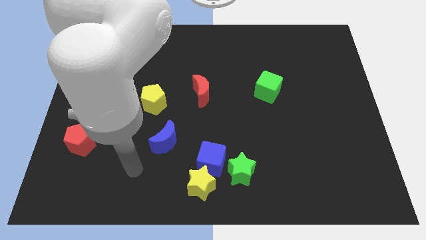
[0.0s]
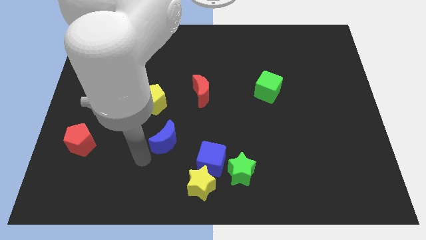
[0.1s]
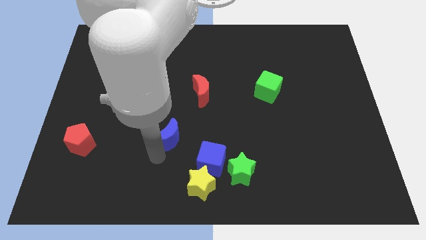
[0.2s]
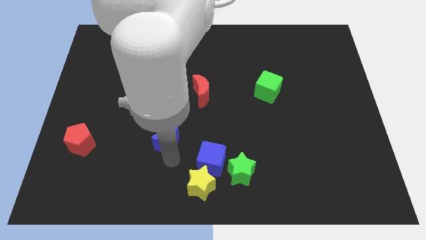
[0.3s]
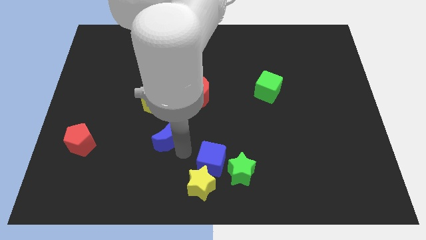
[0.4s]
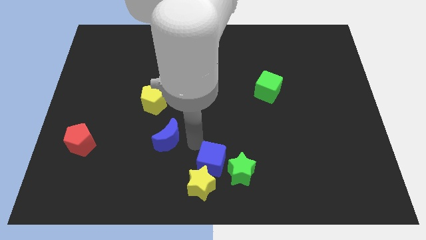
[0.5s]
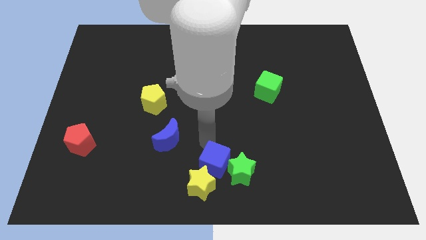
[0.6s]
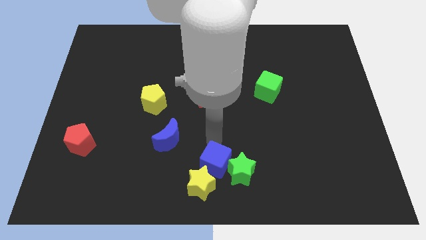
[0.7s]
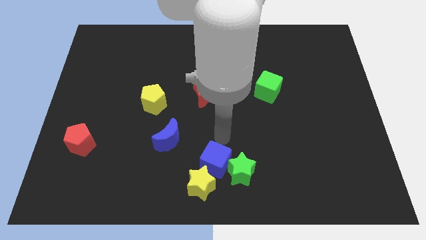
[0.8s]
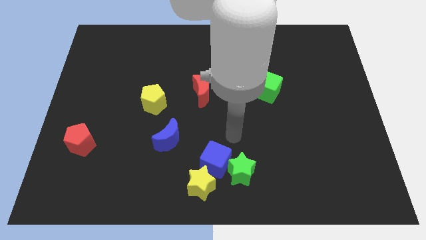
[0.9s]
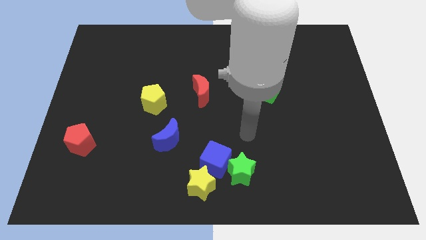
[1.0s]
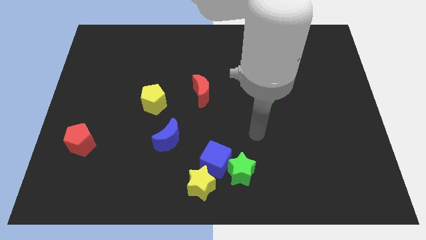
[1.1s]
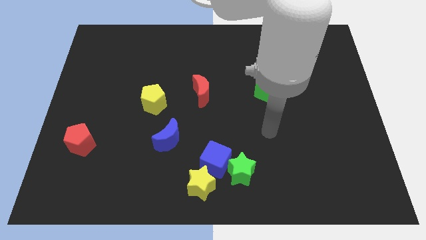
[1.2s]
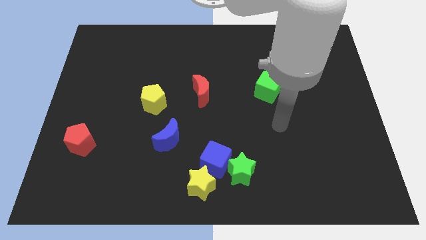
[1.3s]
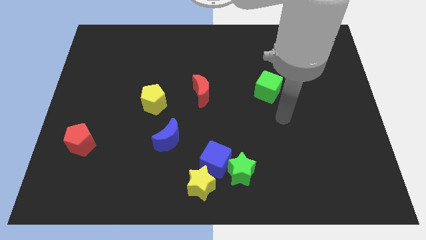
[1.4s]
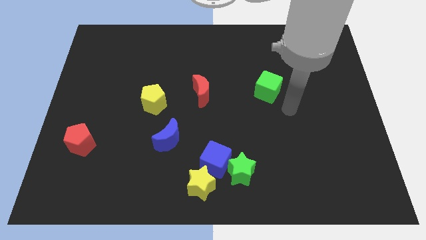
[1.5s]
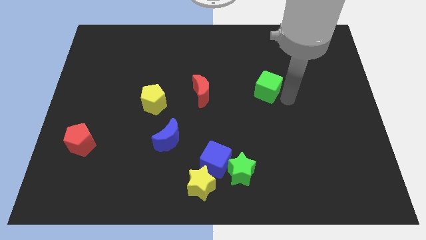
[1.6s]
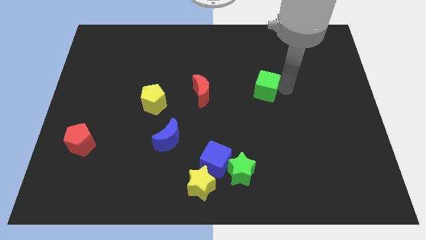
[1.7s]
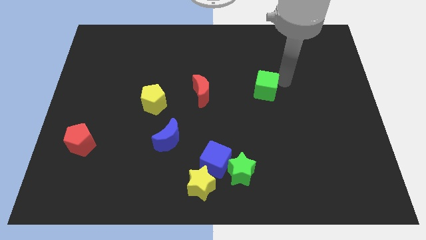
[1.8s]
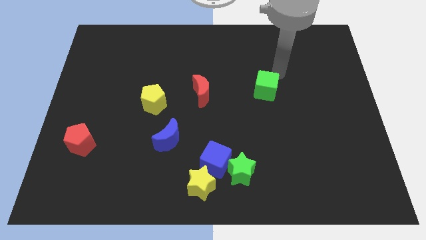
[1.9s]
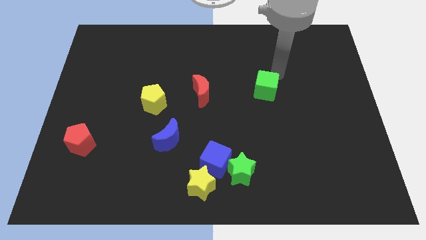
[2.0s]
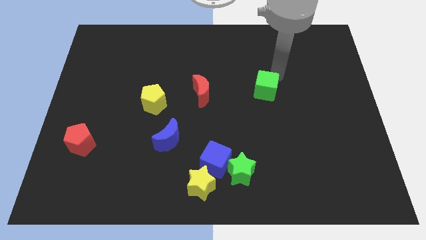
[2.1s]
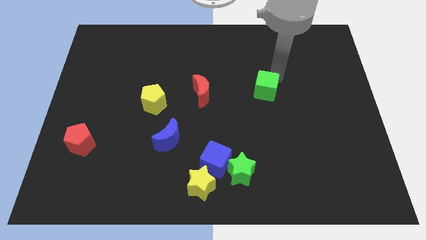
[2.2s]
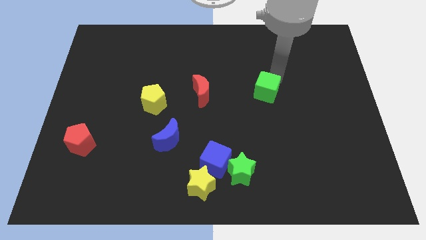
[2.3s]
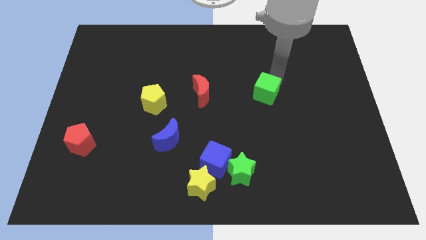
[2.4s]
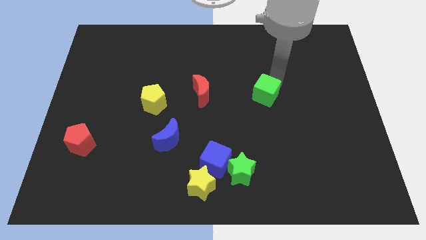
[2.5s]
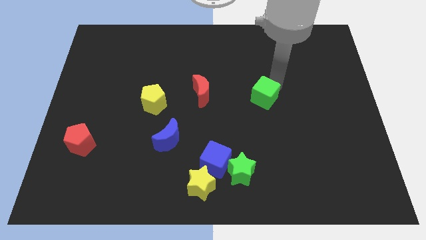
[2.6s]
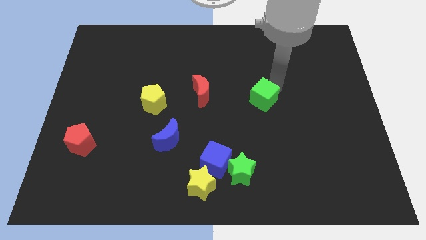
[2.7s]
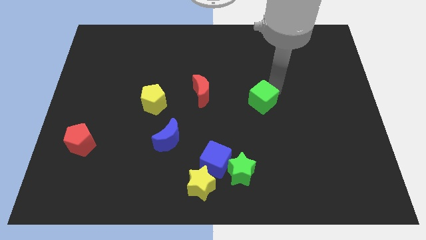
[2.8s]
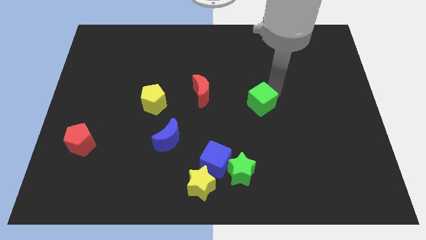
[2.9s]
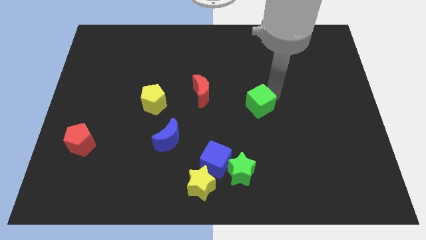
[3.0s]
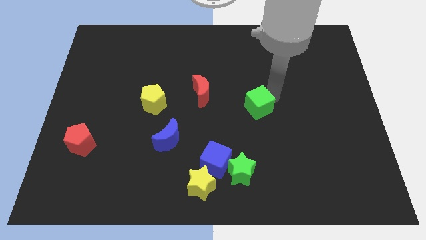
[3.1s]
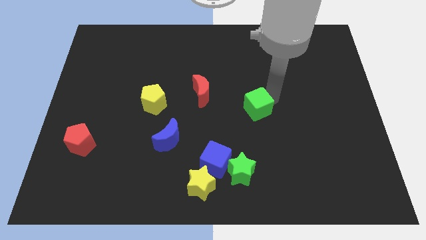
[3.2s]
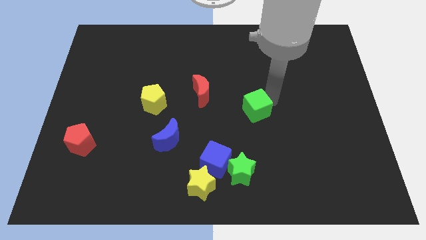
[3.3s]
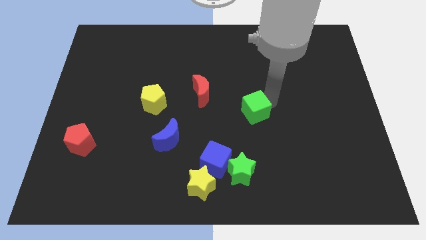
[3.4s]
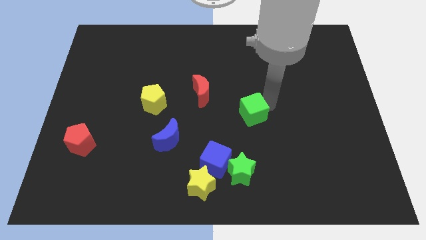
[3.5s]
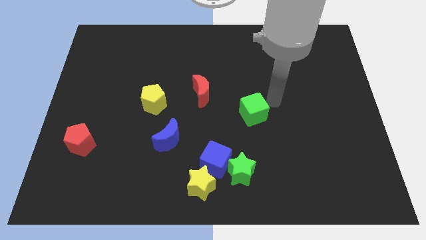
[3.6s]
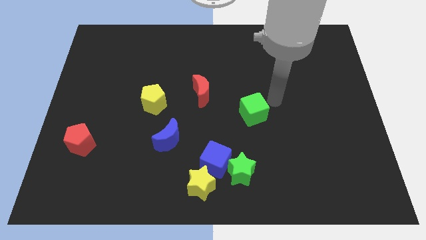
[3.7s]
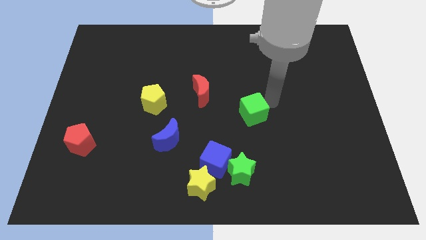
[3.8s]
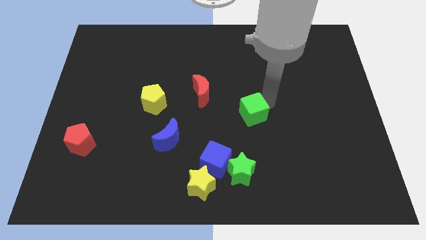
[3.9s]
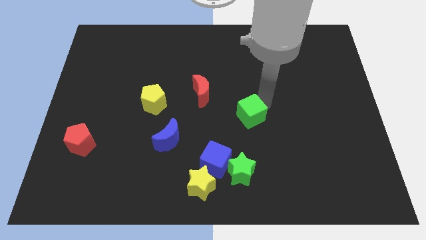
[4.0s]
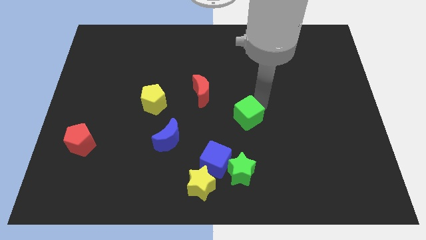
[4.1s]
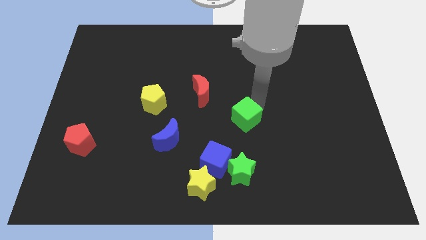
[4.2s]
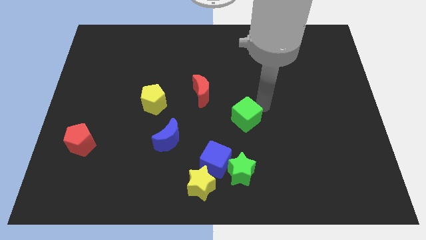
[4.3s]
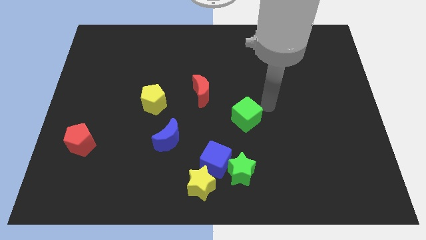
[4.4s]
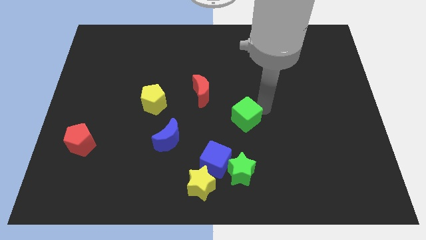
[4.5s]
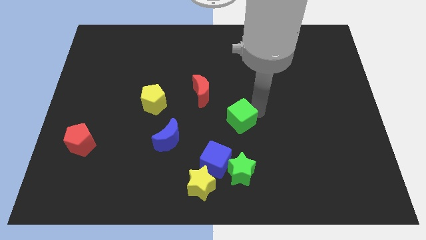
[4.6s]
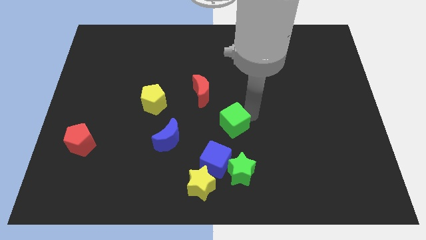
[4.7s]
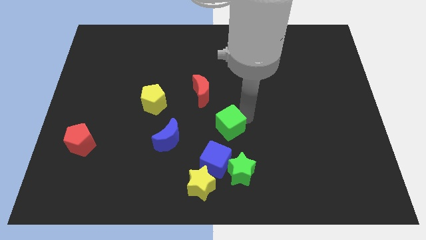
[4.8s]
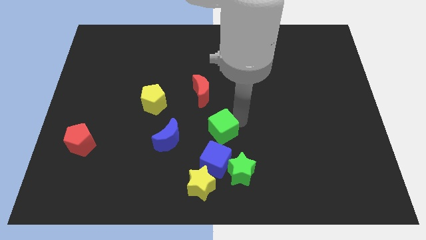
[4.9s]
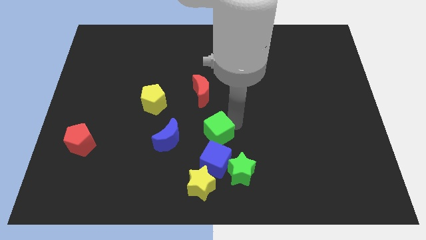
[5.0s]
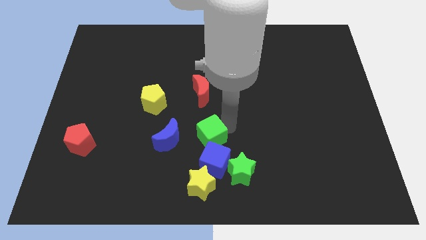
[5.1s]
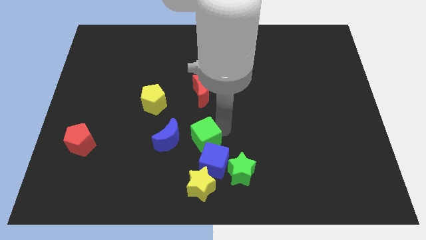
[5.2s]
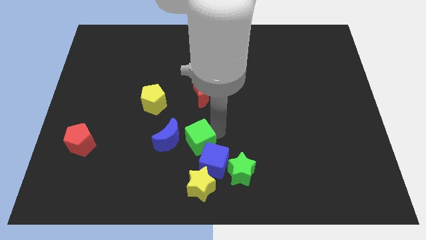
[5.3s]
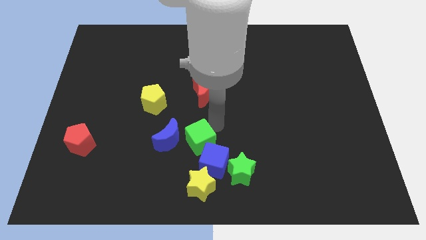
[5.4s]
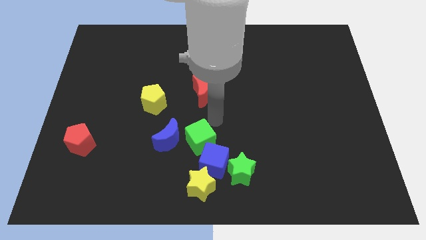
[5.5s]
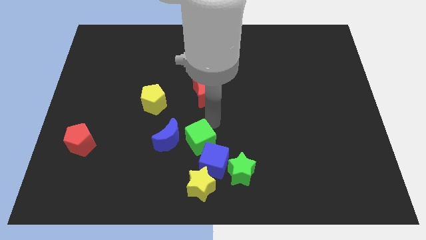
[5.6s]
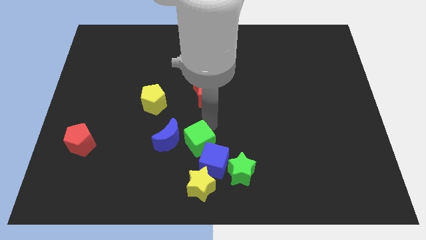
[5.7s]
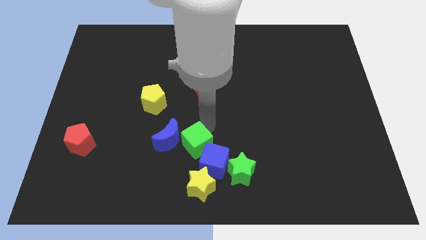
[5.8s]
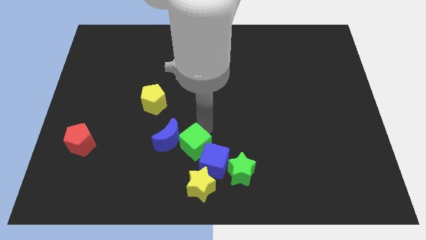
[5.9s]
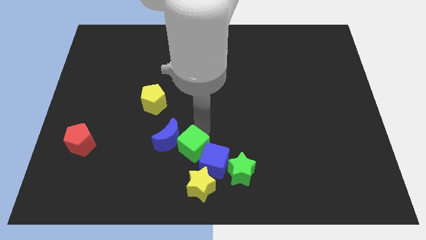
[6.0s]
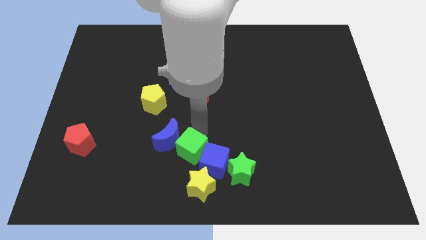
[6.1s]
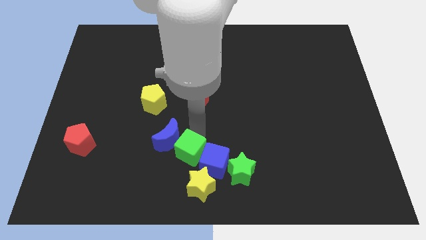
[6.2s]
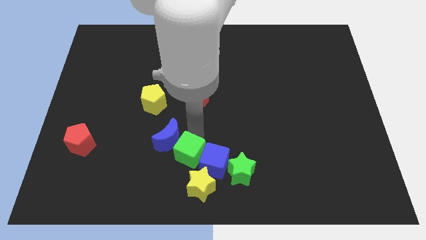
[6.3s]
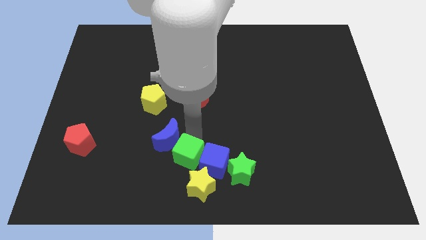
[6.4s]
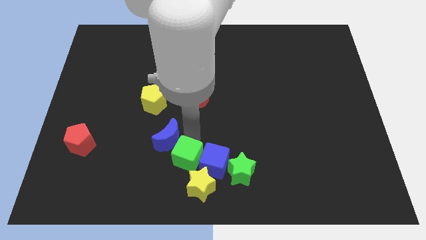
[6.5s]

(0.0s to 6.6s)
push the green cube to the bottom
